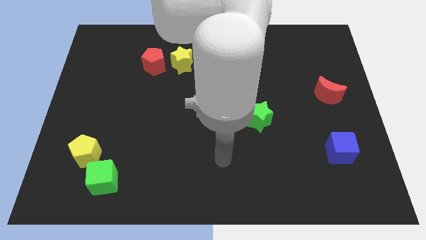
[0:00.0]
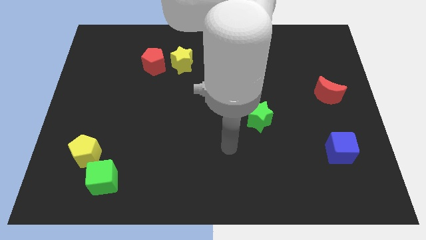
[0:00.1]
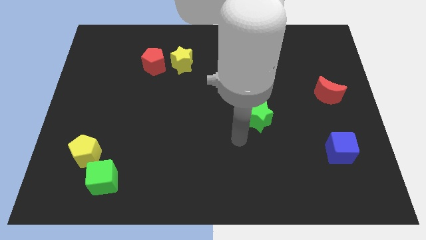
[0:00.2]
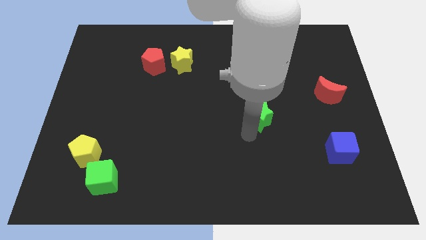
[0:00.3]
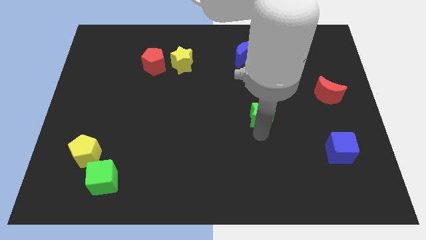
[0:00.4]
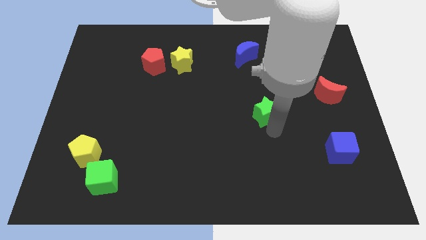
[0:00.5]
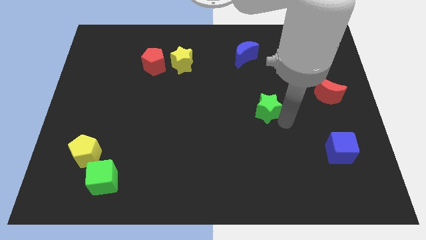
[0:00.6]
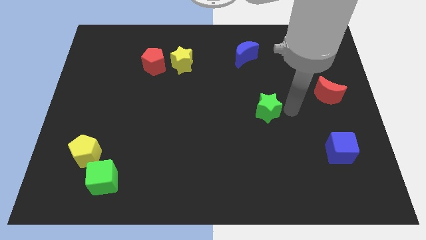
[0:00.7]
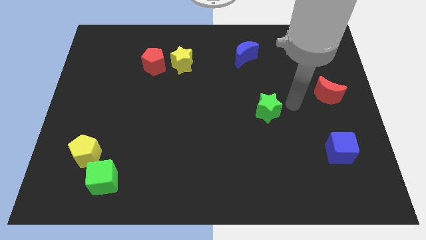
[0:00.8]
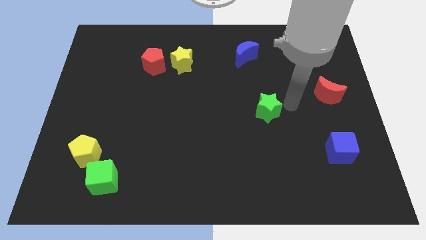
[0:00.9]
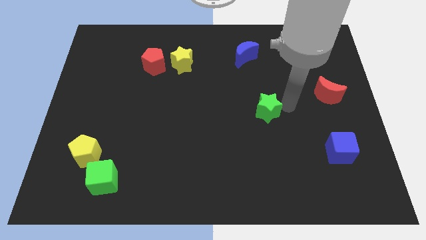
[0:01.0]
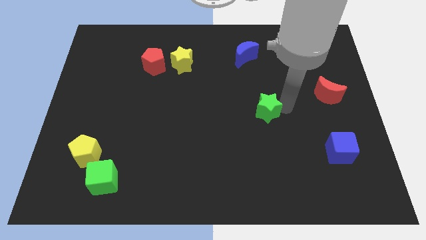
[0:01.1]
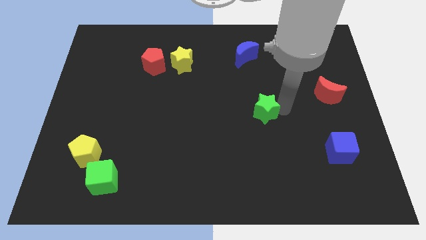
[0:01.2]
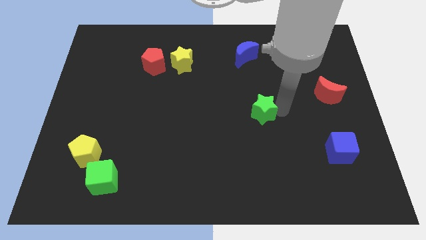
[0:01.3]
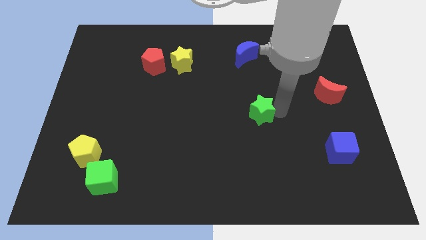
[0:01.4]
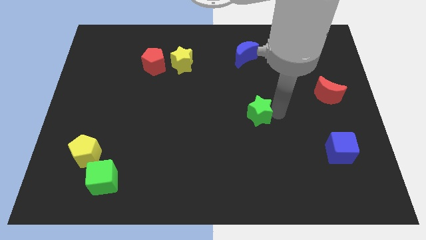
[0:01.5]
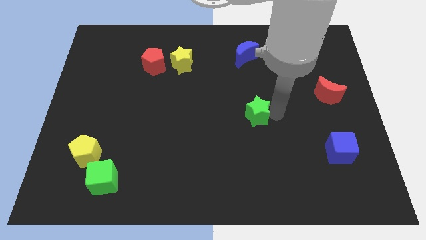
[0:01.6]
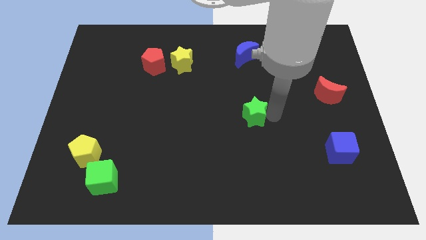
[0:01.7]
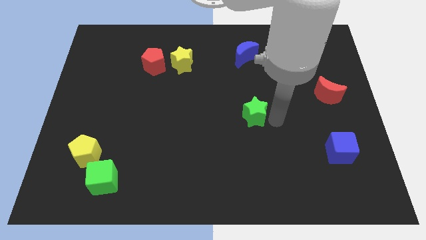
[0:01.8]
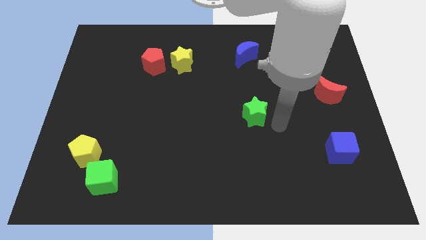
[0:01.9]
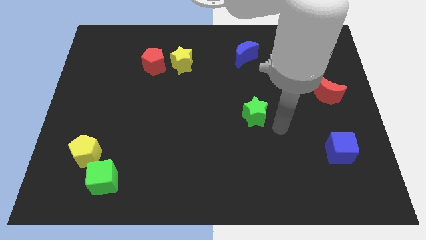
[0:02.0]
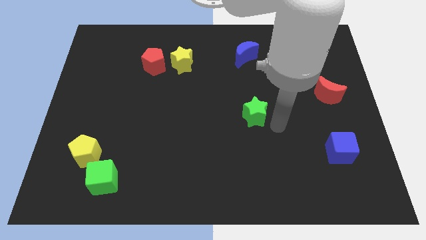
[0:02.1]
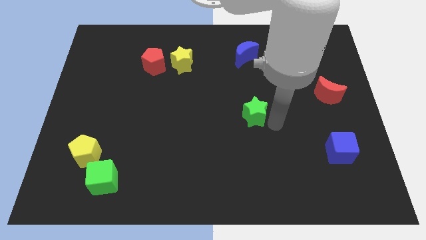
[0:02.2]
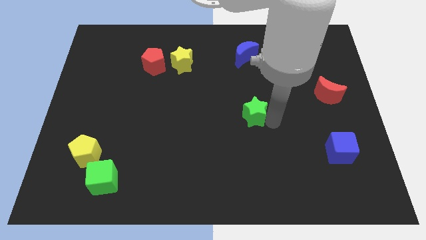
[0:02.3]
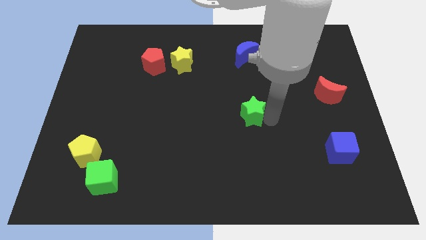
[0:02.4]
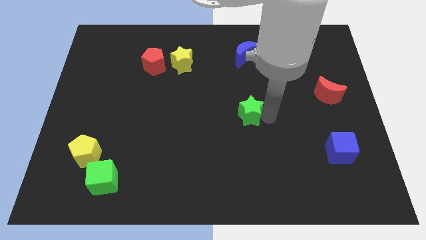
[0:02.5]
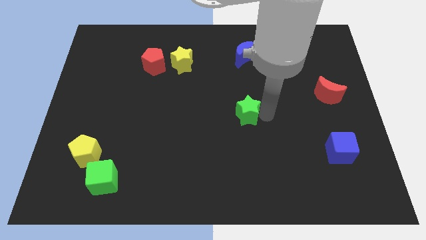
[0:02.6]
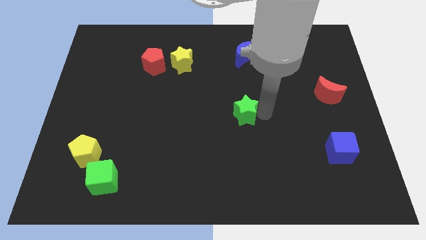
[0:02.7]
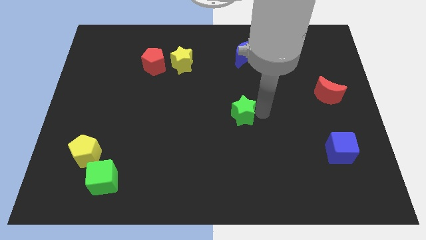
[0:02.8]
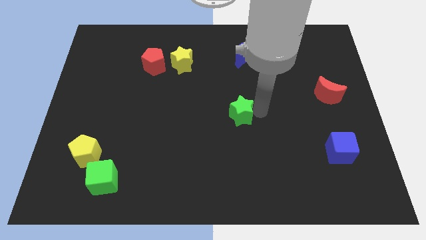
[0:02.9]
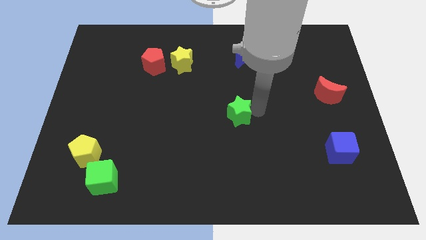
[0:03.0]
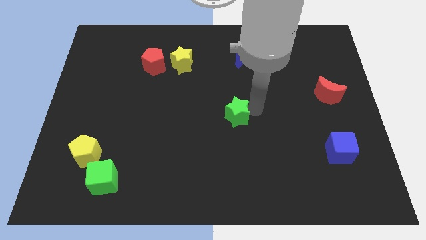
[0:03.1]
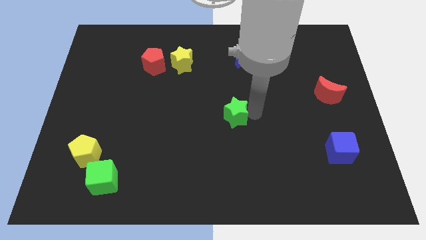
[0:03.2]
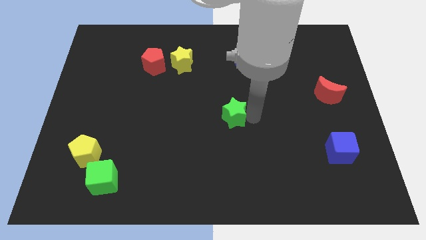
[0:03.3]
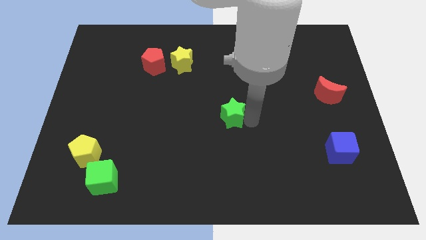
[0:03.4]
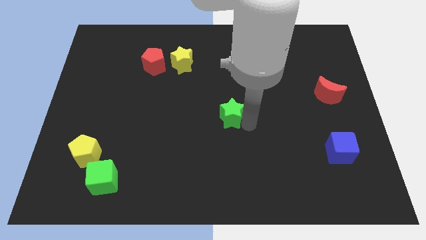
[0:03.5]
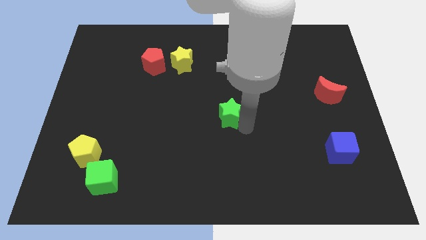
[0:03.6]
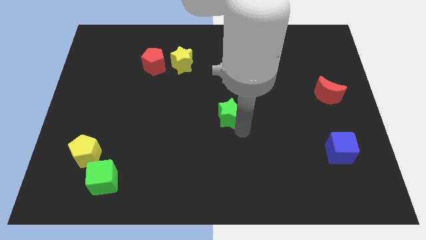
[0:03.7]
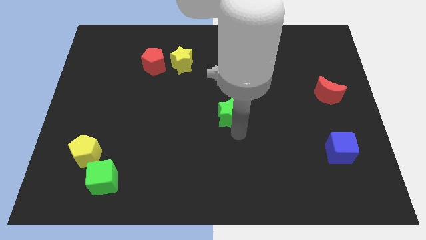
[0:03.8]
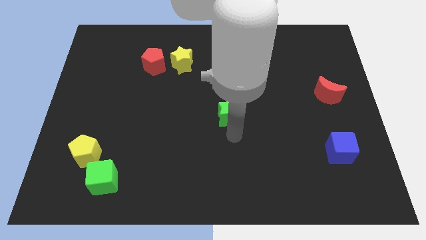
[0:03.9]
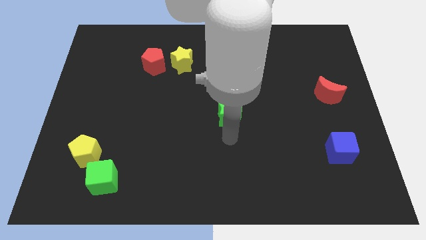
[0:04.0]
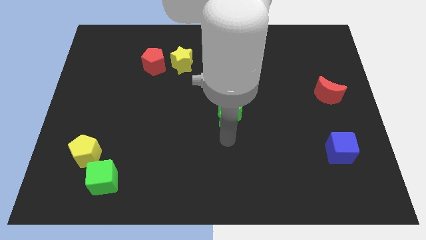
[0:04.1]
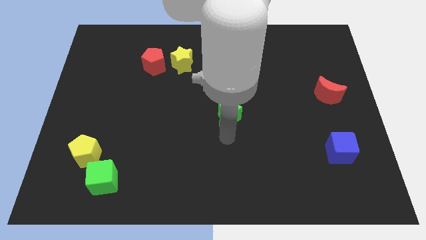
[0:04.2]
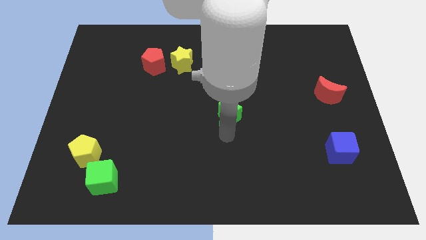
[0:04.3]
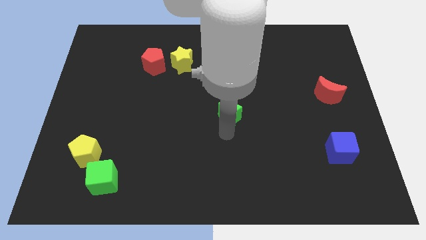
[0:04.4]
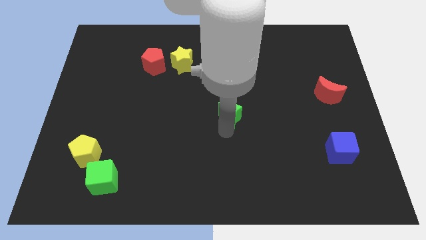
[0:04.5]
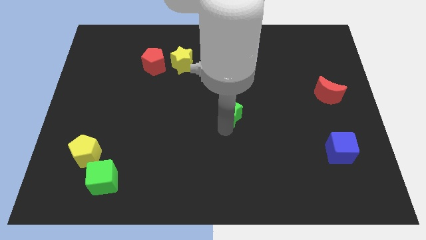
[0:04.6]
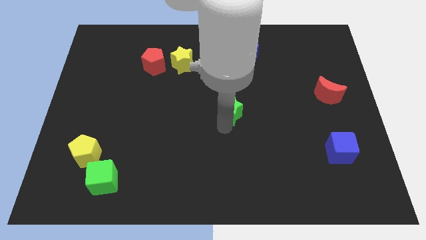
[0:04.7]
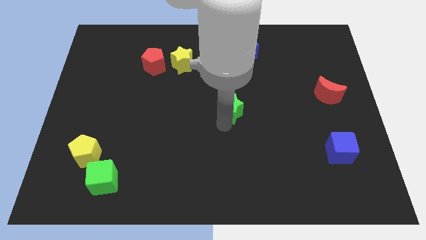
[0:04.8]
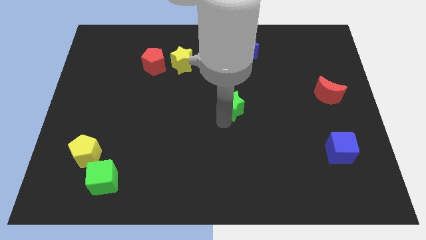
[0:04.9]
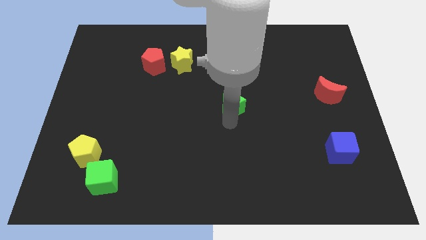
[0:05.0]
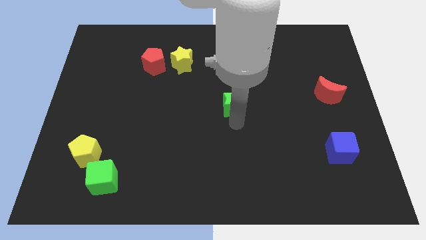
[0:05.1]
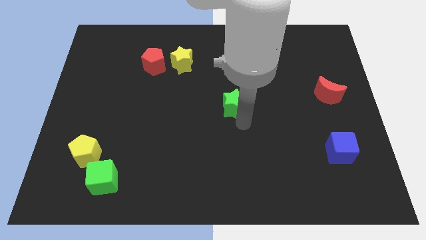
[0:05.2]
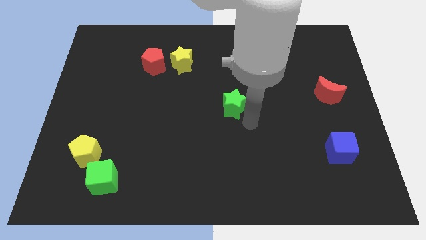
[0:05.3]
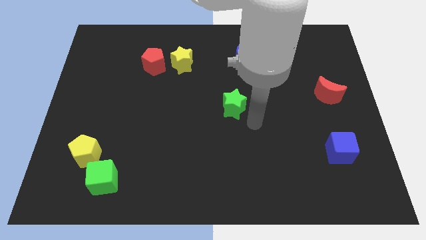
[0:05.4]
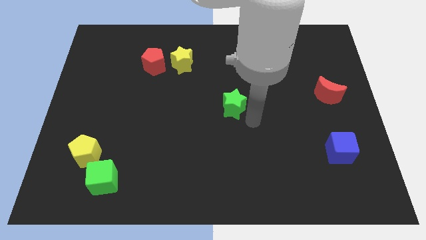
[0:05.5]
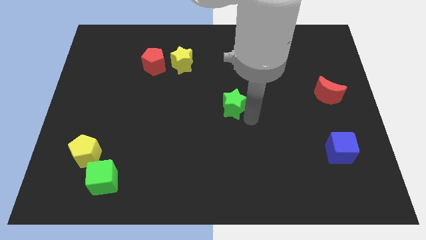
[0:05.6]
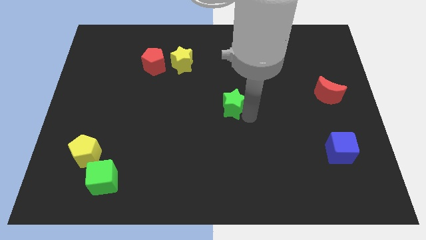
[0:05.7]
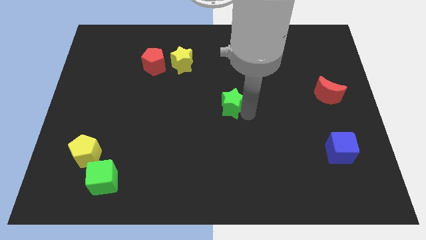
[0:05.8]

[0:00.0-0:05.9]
push the green star a little bit up and to the left

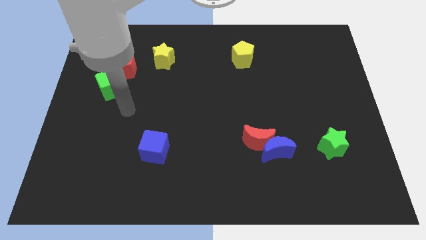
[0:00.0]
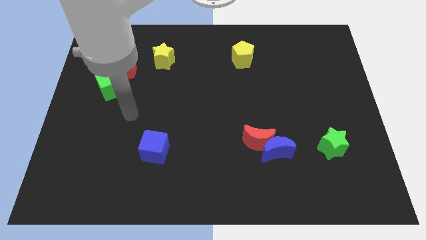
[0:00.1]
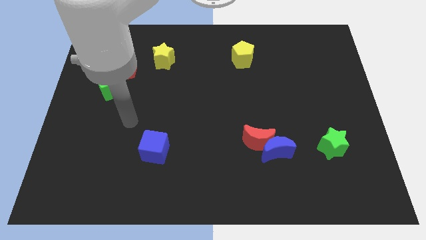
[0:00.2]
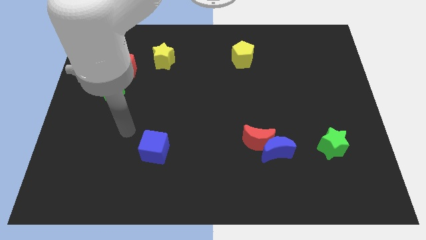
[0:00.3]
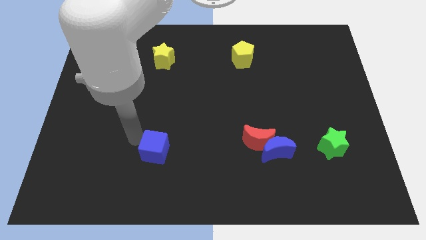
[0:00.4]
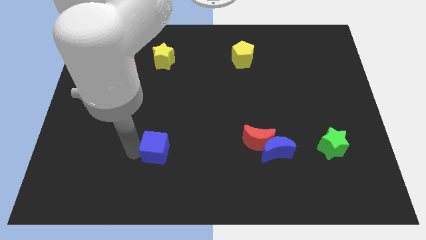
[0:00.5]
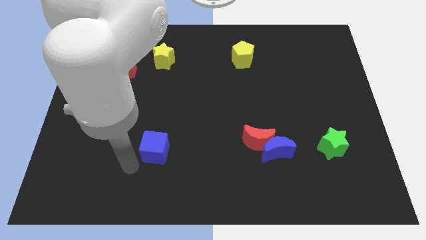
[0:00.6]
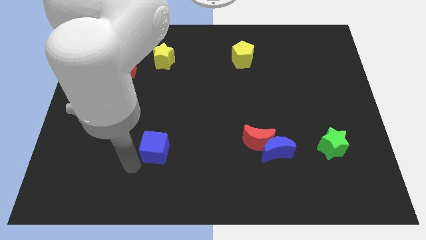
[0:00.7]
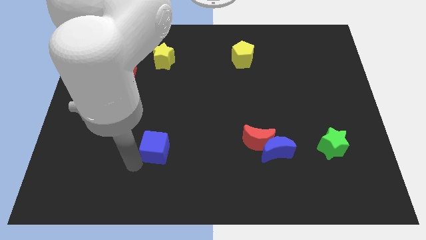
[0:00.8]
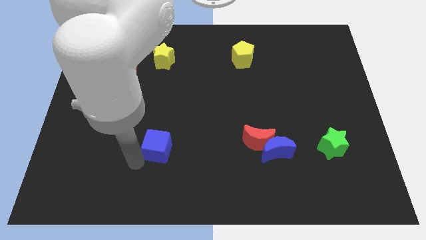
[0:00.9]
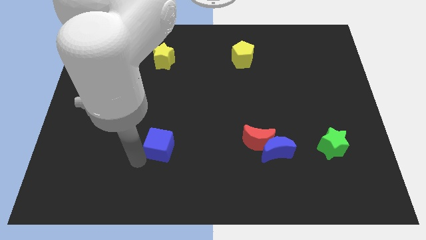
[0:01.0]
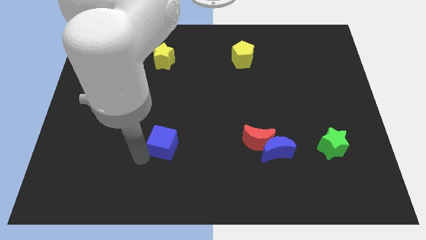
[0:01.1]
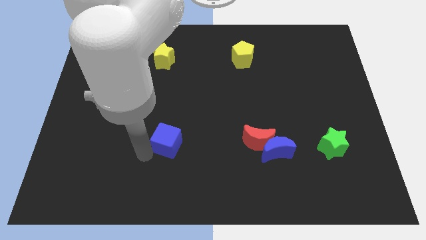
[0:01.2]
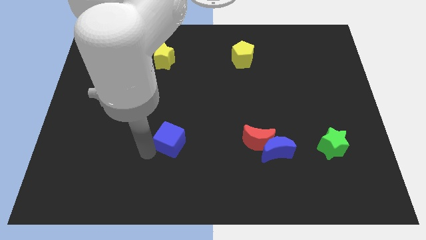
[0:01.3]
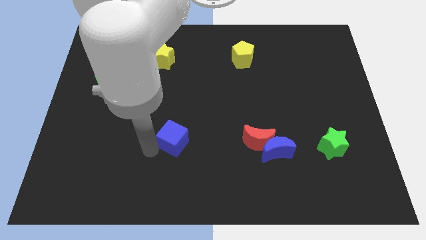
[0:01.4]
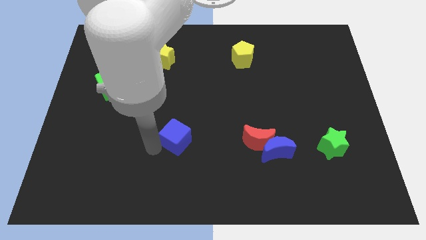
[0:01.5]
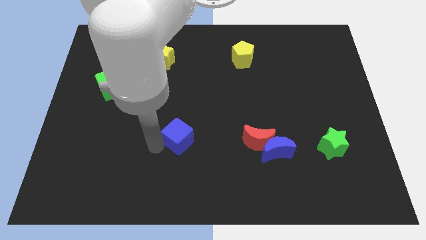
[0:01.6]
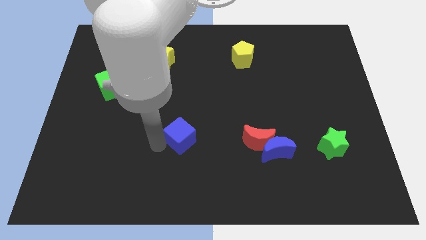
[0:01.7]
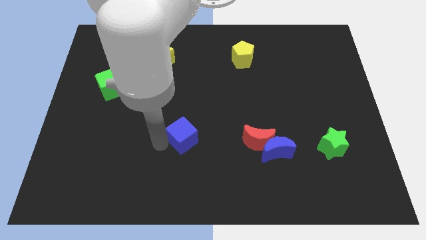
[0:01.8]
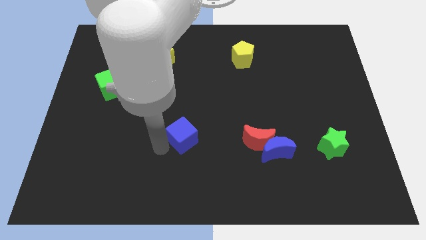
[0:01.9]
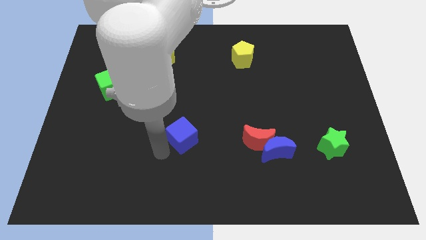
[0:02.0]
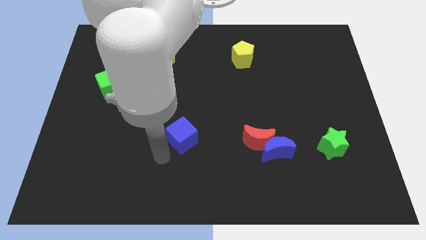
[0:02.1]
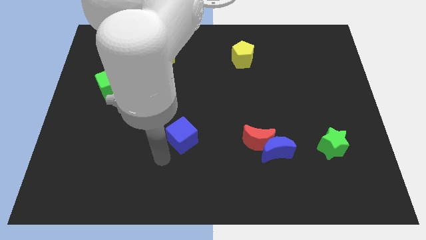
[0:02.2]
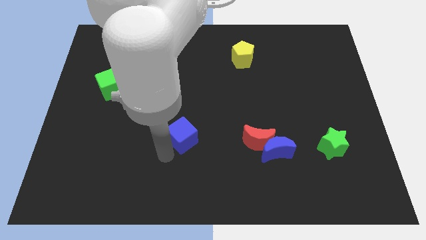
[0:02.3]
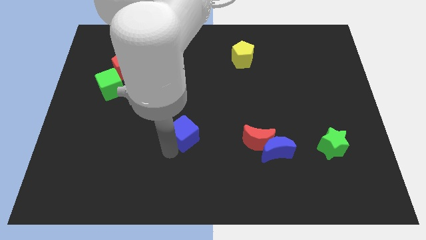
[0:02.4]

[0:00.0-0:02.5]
slightly slide the blue cube upwards and right
